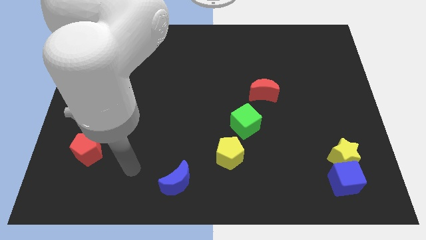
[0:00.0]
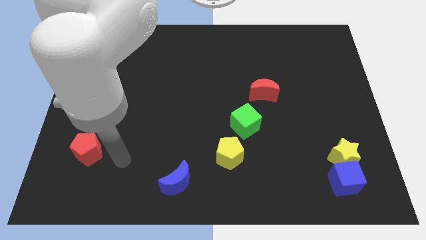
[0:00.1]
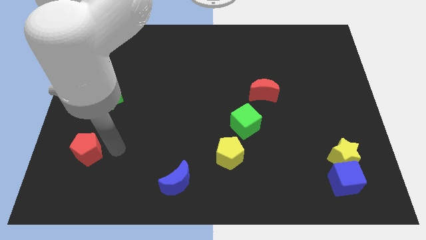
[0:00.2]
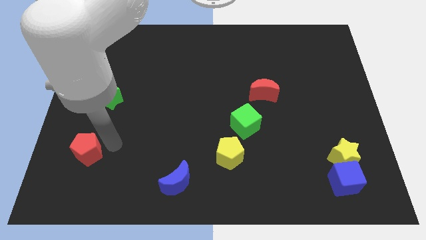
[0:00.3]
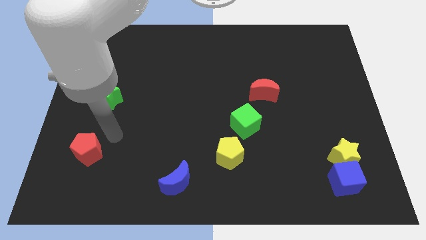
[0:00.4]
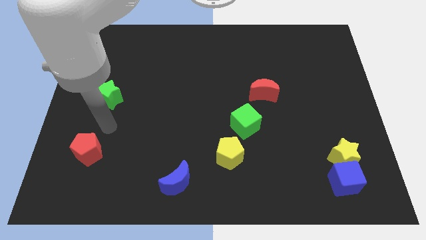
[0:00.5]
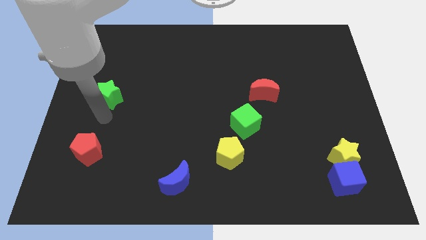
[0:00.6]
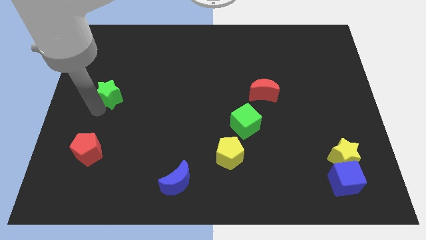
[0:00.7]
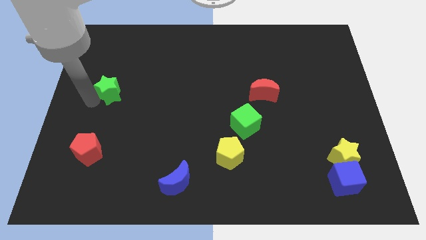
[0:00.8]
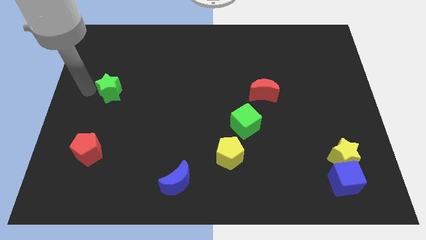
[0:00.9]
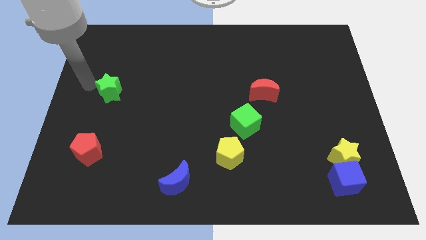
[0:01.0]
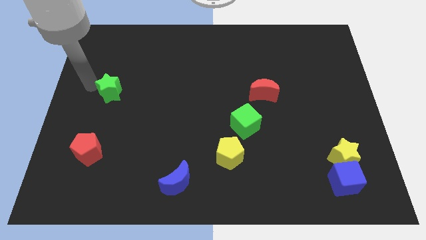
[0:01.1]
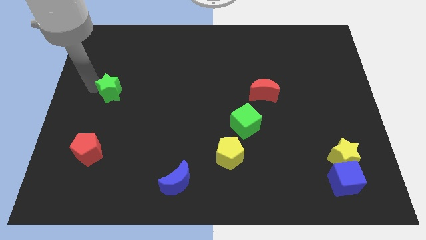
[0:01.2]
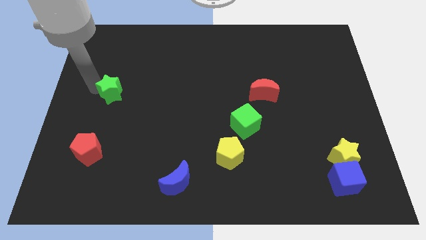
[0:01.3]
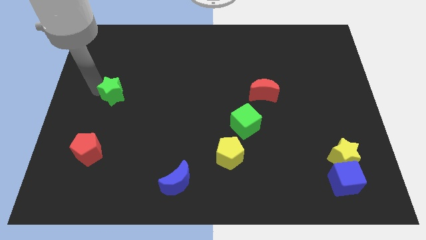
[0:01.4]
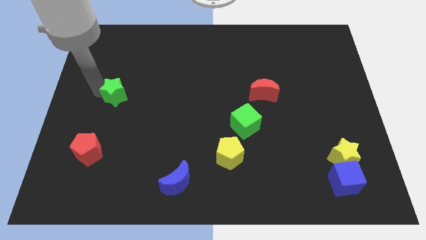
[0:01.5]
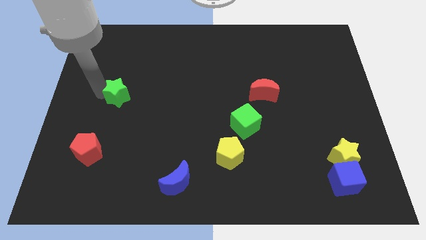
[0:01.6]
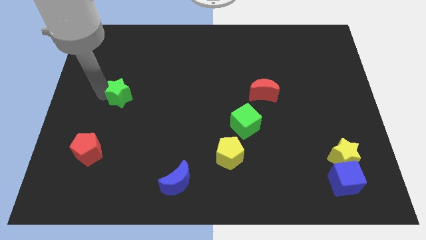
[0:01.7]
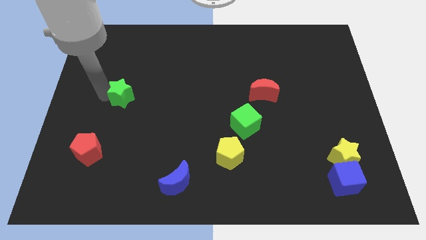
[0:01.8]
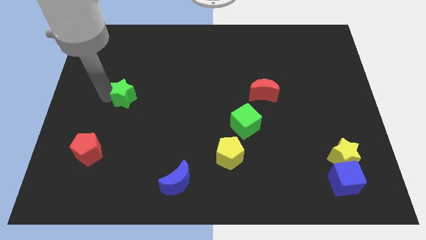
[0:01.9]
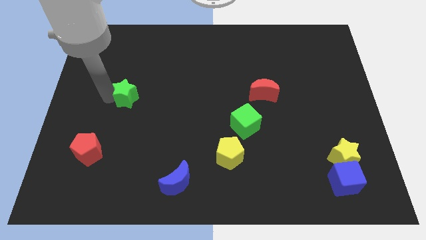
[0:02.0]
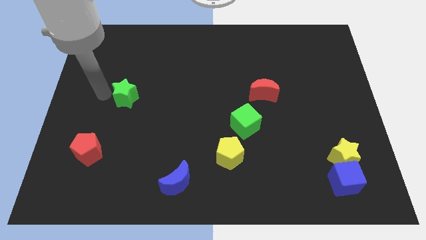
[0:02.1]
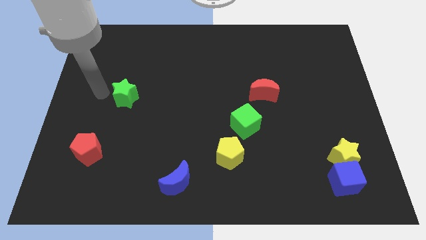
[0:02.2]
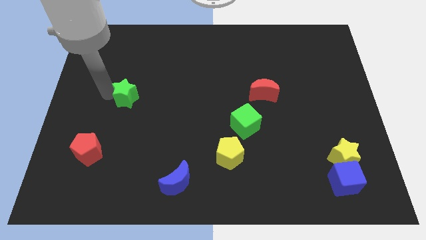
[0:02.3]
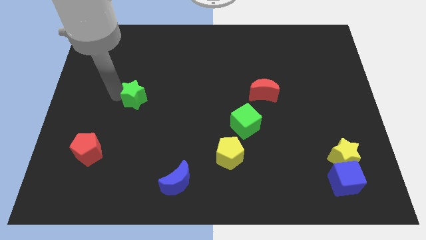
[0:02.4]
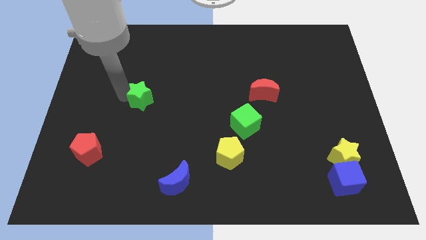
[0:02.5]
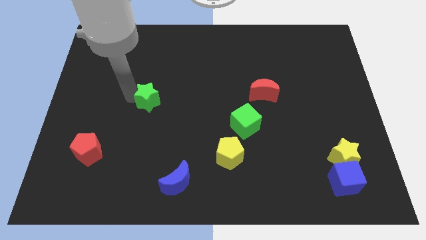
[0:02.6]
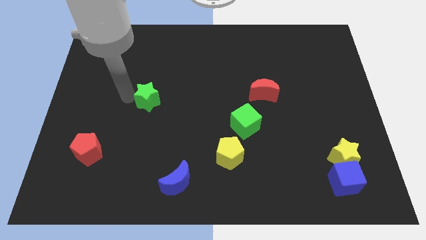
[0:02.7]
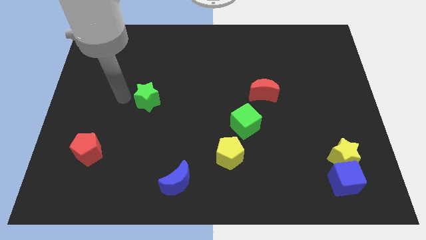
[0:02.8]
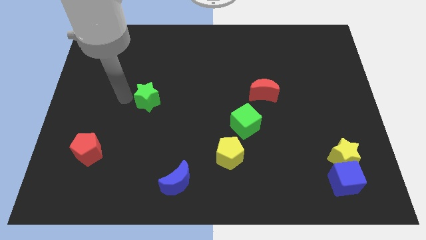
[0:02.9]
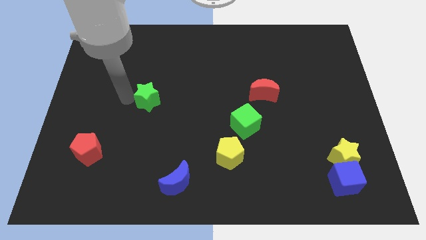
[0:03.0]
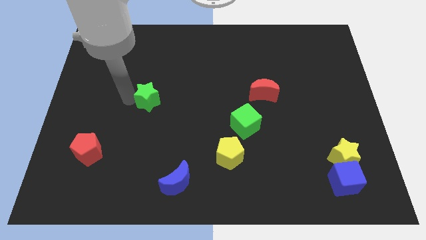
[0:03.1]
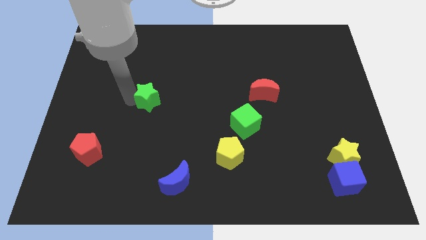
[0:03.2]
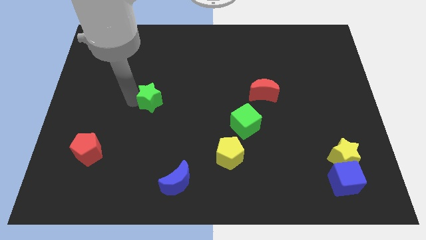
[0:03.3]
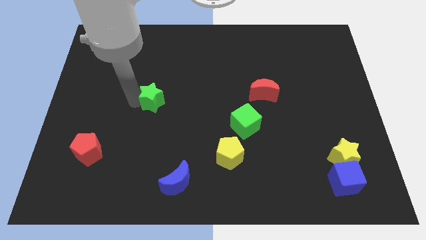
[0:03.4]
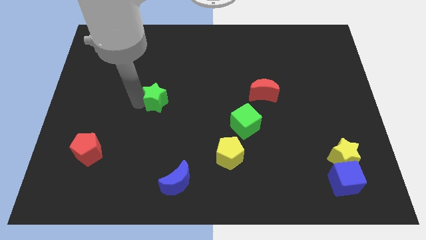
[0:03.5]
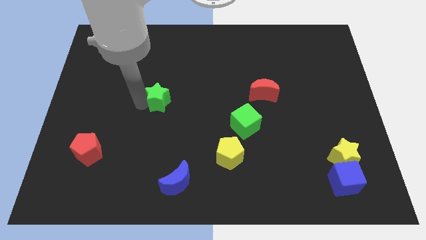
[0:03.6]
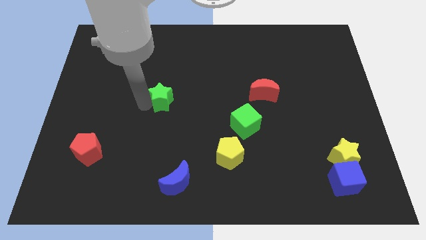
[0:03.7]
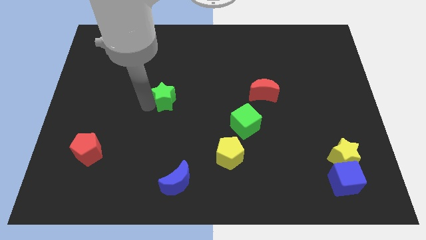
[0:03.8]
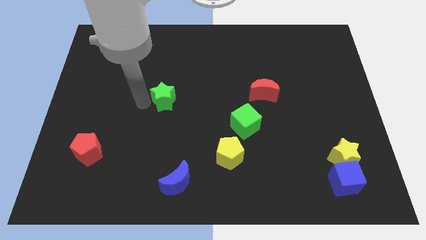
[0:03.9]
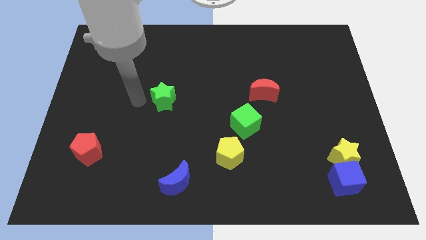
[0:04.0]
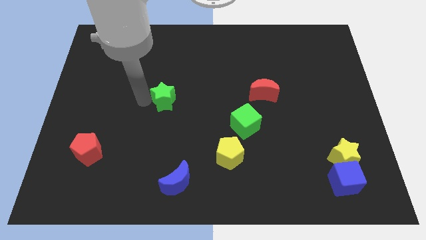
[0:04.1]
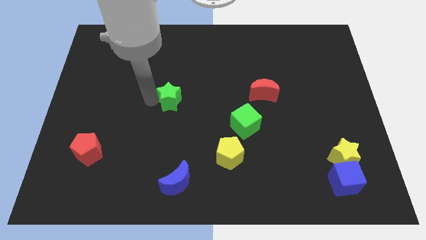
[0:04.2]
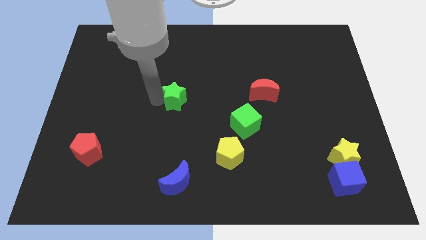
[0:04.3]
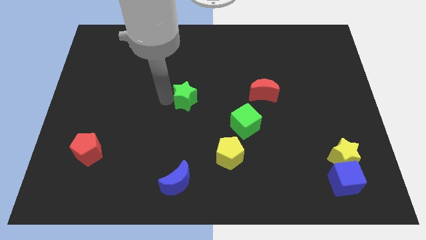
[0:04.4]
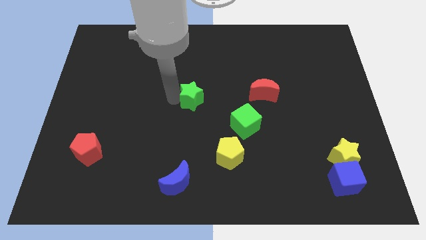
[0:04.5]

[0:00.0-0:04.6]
move the green star to the right

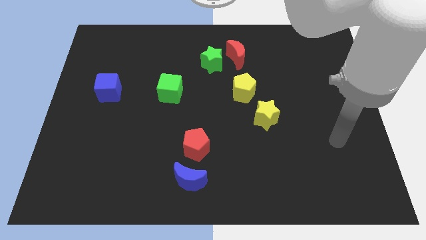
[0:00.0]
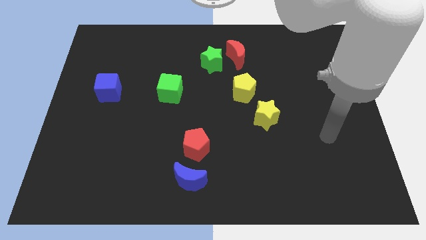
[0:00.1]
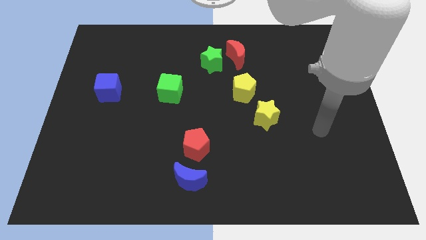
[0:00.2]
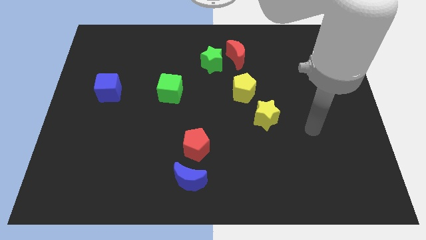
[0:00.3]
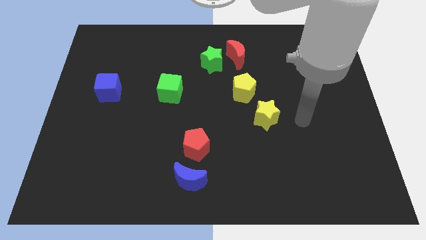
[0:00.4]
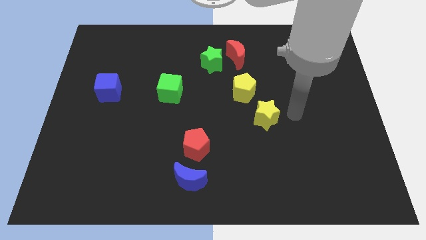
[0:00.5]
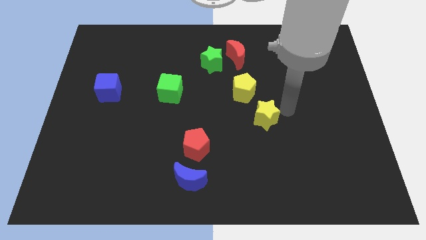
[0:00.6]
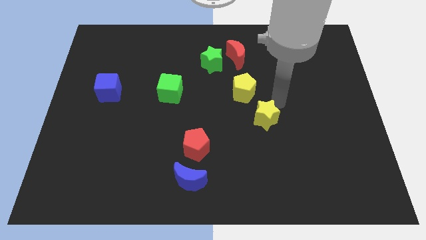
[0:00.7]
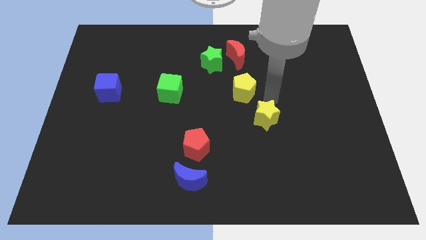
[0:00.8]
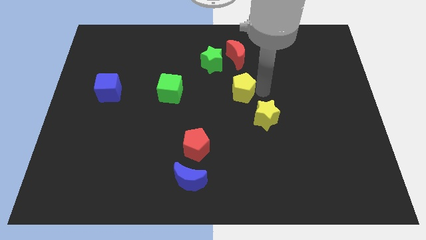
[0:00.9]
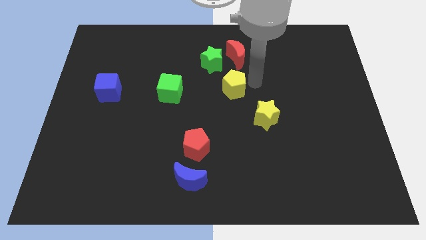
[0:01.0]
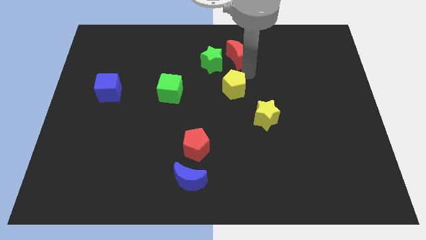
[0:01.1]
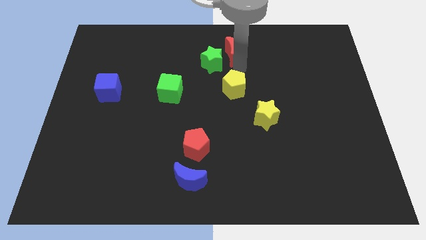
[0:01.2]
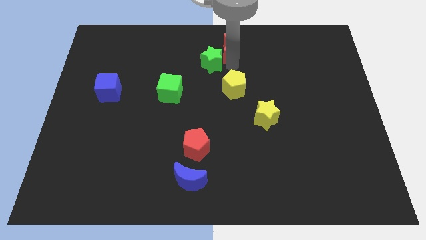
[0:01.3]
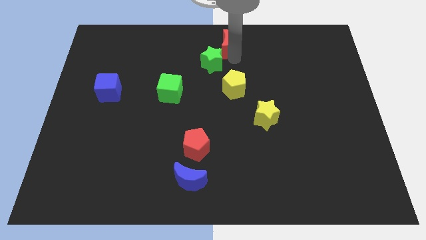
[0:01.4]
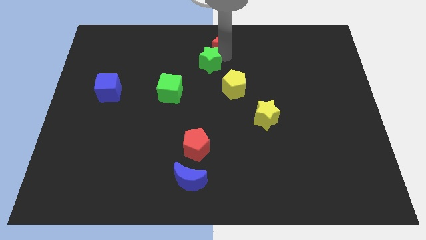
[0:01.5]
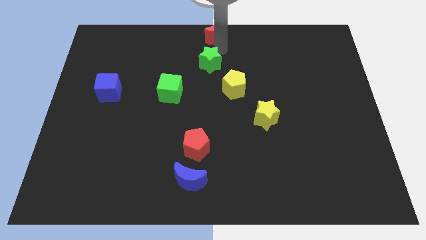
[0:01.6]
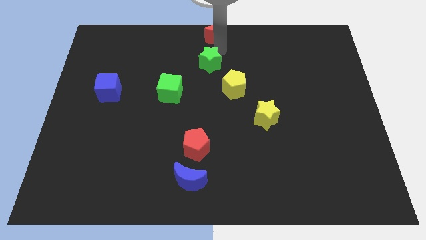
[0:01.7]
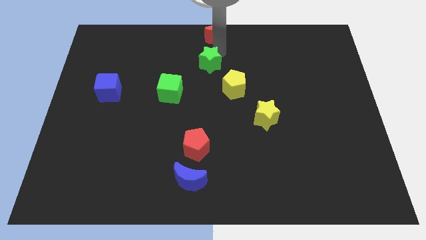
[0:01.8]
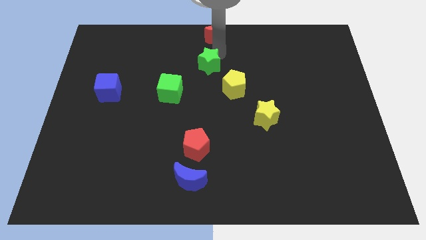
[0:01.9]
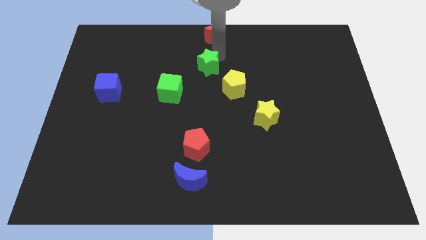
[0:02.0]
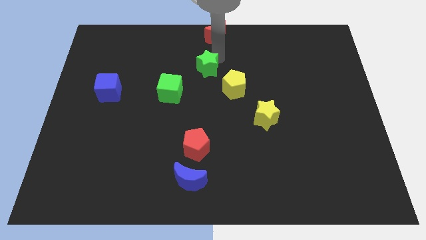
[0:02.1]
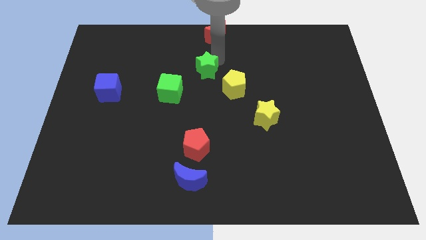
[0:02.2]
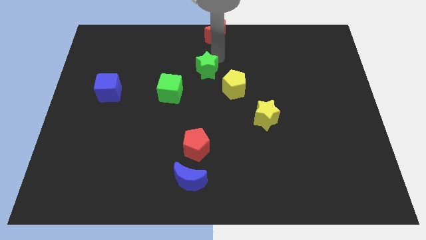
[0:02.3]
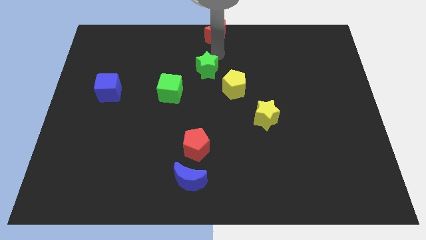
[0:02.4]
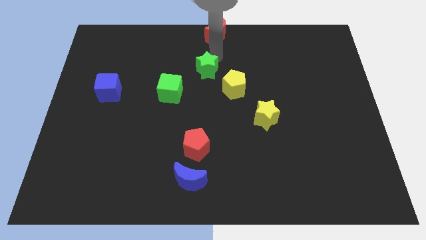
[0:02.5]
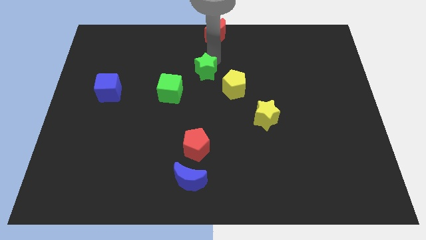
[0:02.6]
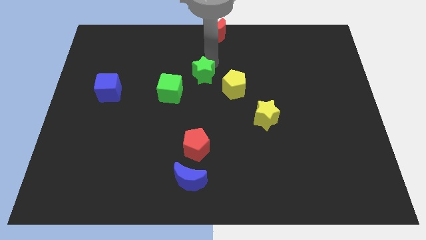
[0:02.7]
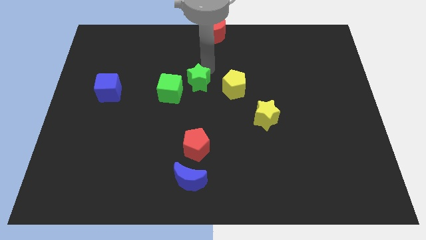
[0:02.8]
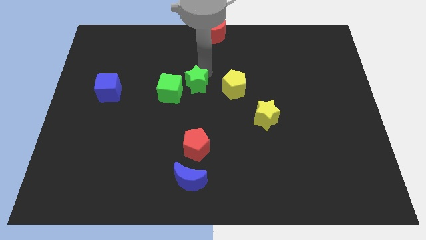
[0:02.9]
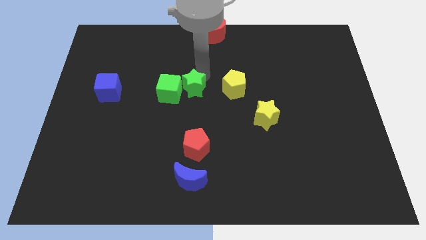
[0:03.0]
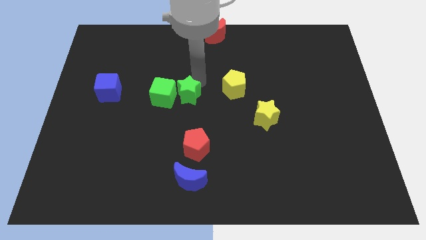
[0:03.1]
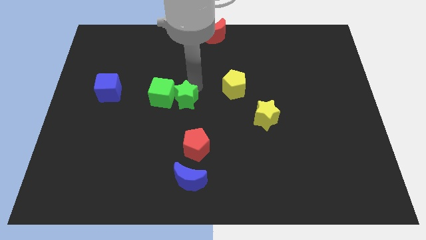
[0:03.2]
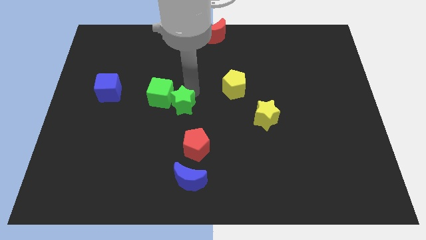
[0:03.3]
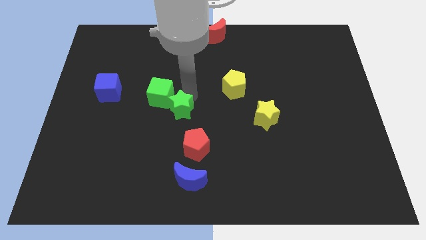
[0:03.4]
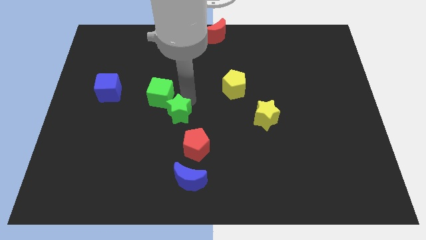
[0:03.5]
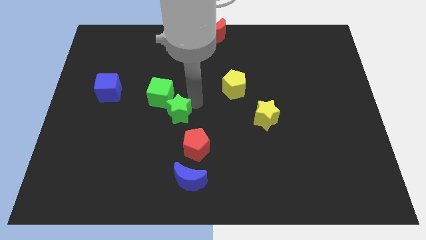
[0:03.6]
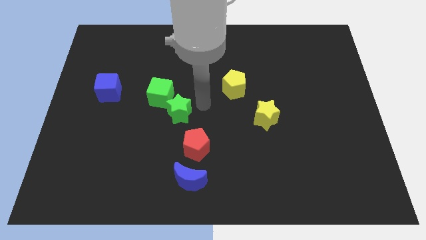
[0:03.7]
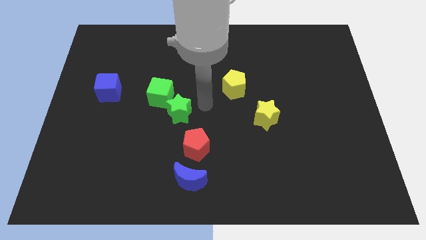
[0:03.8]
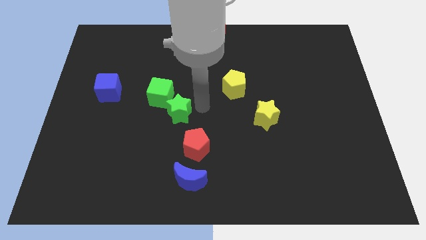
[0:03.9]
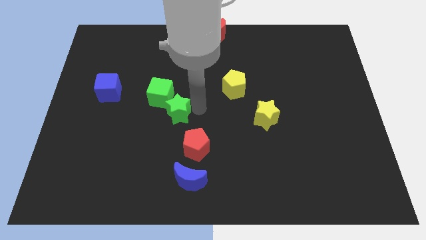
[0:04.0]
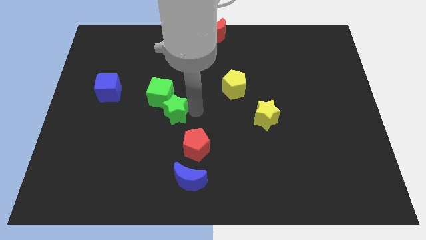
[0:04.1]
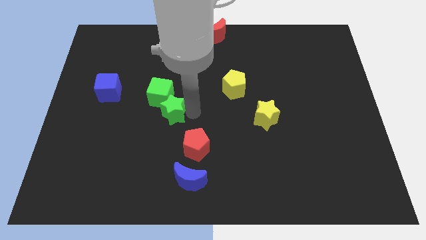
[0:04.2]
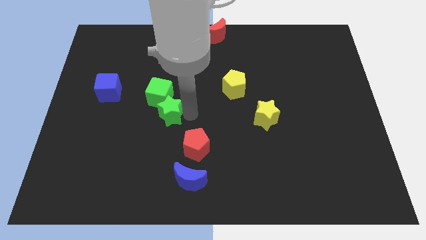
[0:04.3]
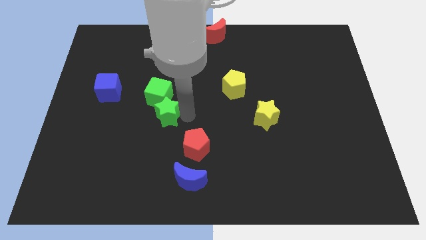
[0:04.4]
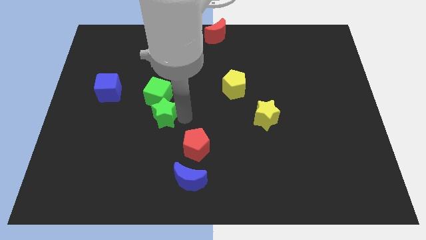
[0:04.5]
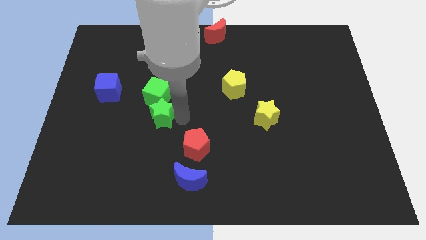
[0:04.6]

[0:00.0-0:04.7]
slide the green star downwards and then left
